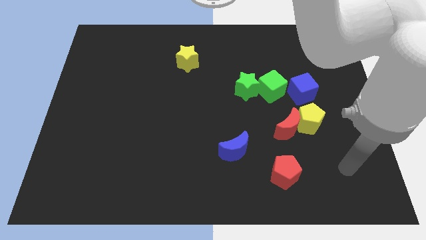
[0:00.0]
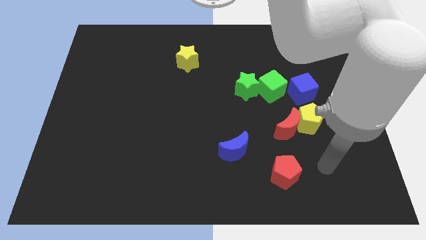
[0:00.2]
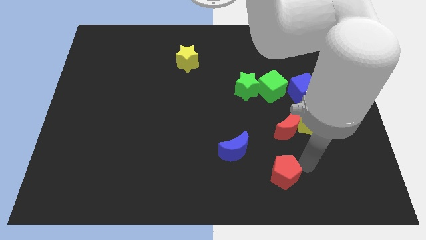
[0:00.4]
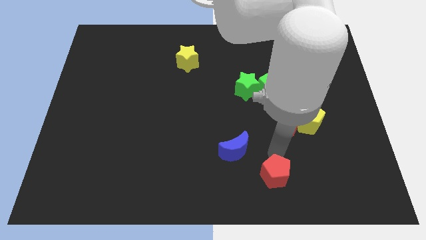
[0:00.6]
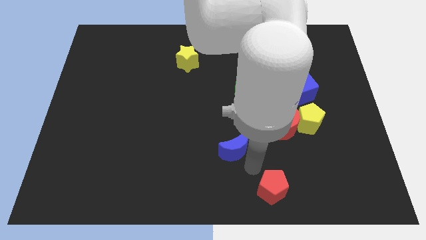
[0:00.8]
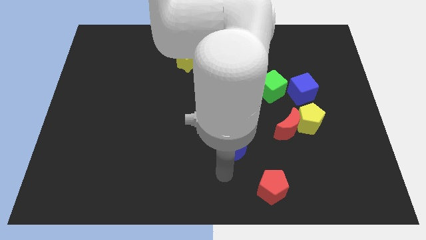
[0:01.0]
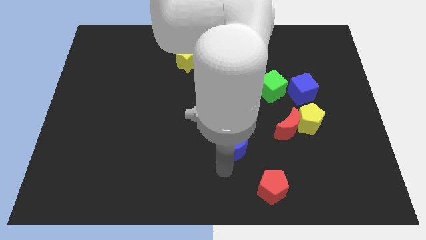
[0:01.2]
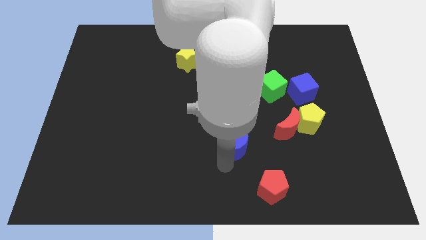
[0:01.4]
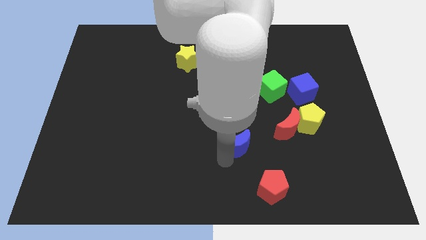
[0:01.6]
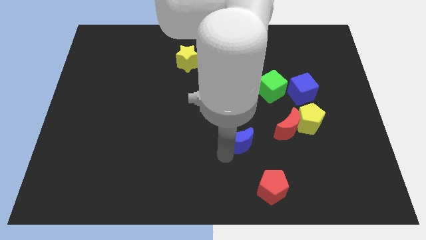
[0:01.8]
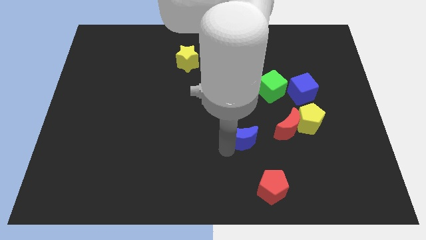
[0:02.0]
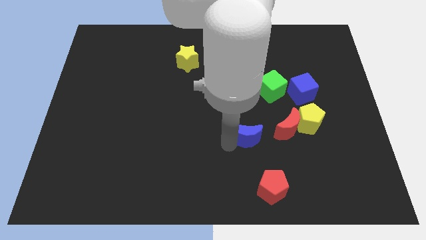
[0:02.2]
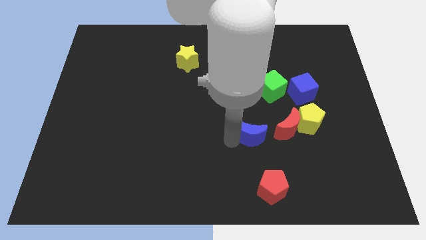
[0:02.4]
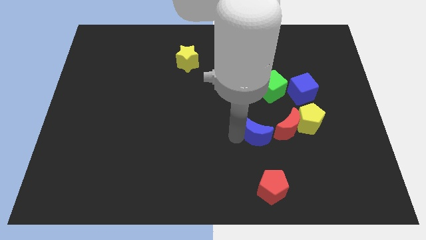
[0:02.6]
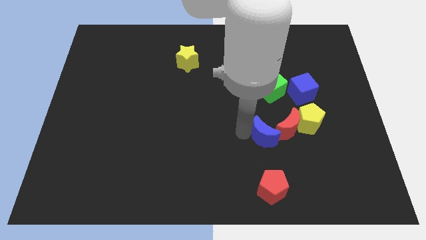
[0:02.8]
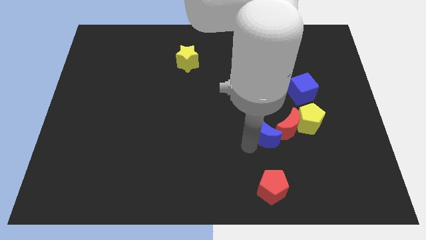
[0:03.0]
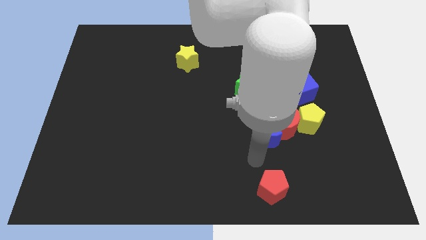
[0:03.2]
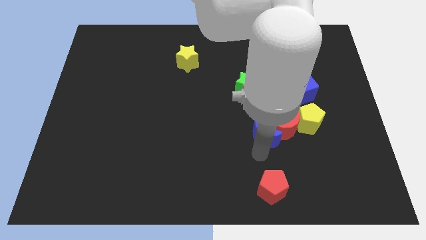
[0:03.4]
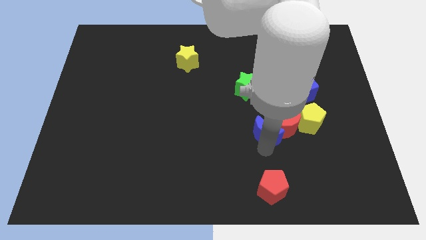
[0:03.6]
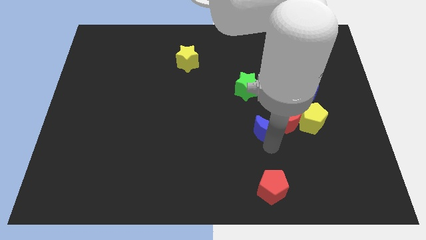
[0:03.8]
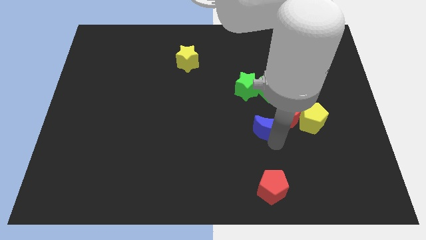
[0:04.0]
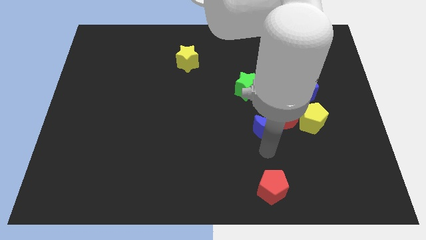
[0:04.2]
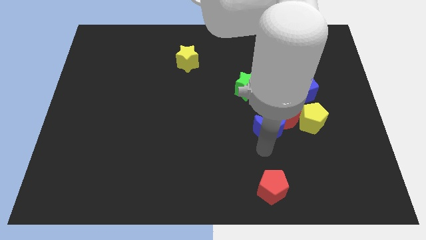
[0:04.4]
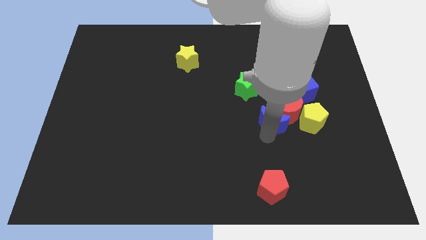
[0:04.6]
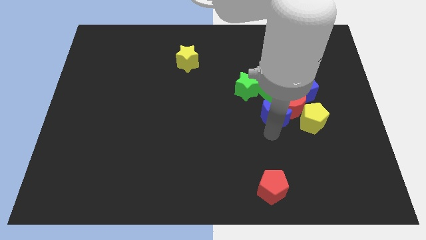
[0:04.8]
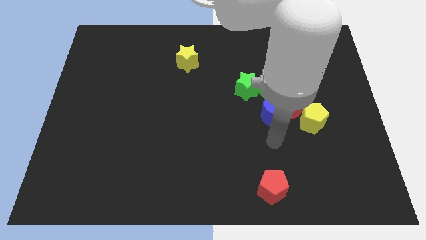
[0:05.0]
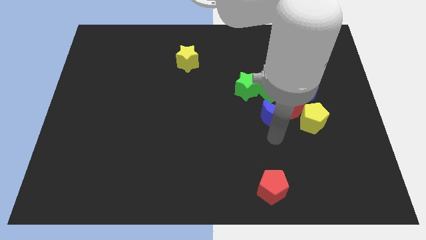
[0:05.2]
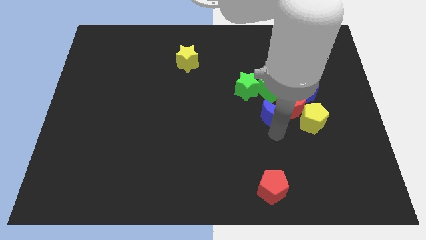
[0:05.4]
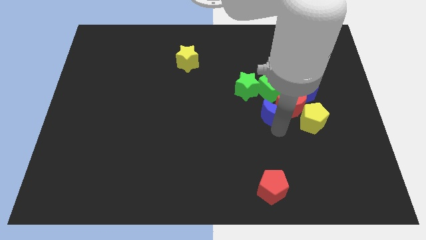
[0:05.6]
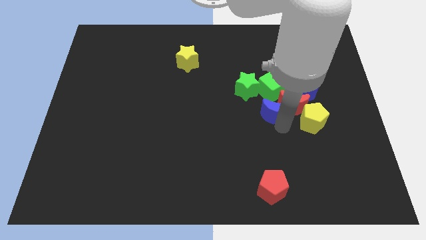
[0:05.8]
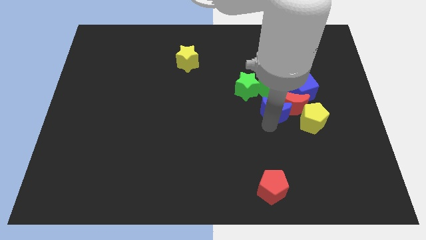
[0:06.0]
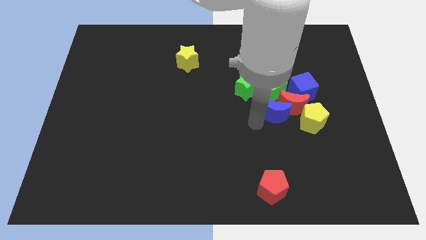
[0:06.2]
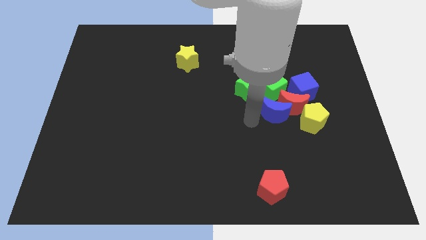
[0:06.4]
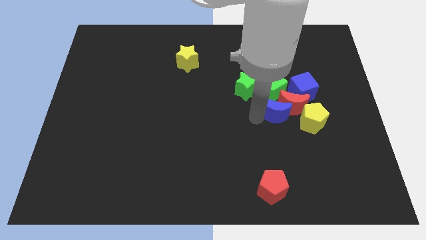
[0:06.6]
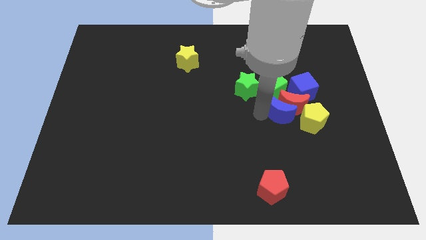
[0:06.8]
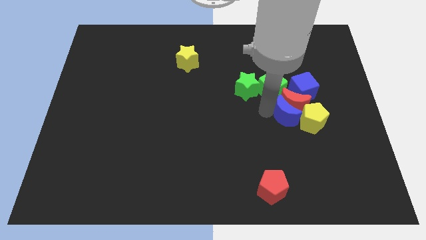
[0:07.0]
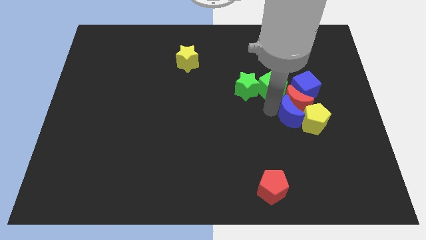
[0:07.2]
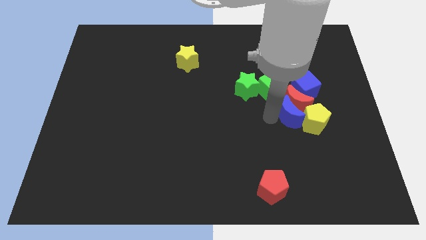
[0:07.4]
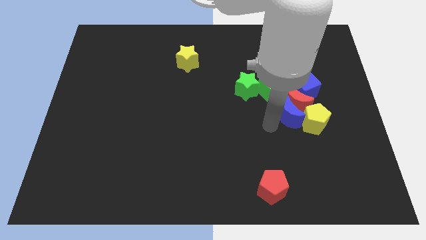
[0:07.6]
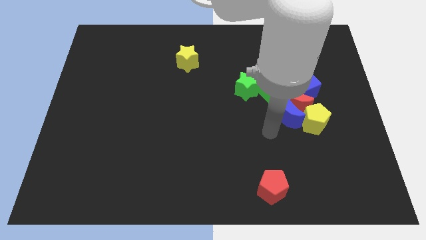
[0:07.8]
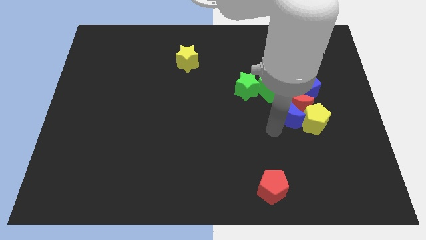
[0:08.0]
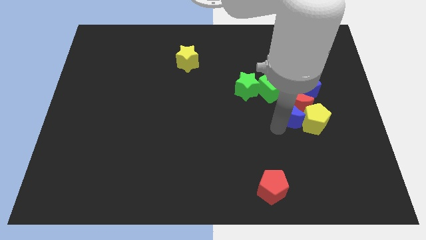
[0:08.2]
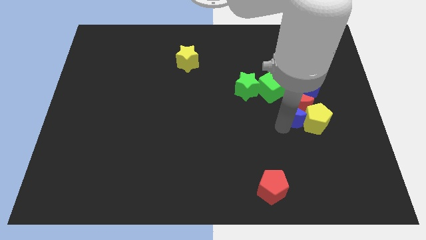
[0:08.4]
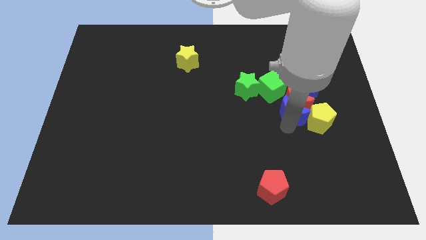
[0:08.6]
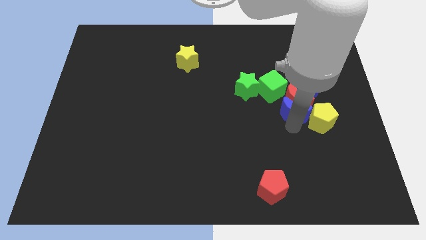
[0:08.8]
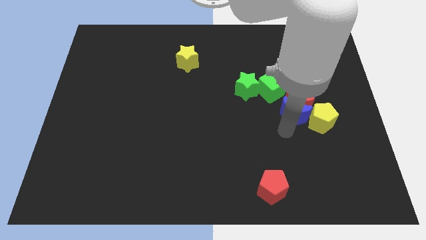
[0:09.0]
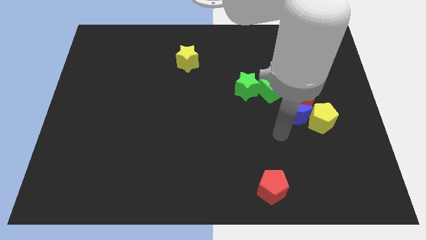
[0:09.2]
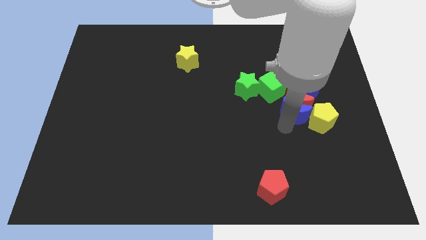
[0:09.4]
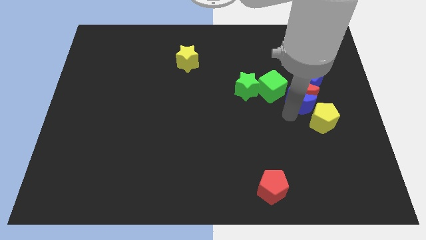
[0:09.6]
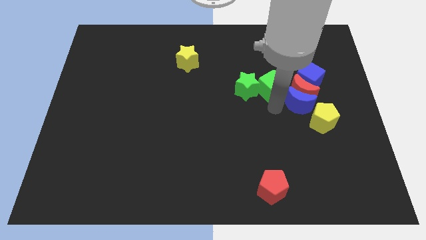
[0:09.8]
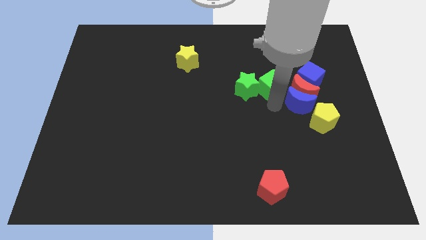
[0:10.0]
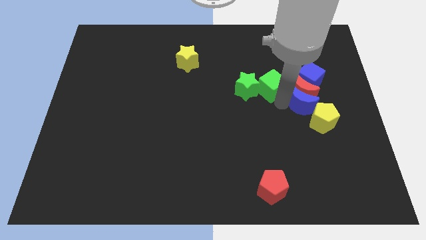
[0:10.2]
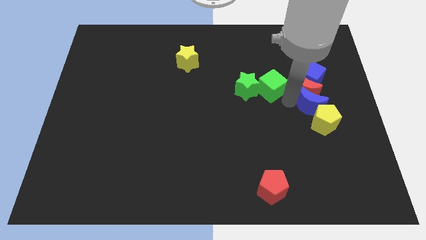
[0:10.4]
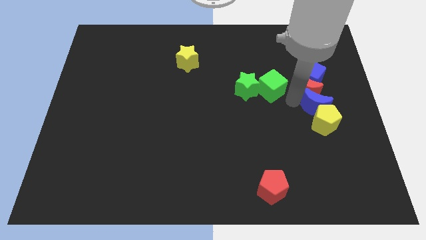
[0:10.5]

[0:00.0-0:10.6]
put the blue moon diagonally up and to the right of the yellow pentagon
